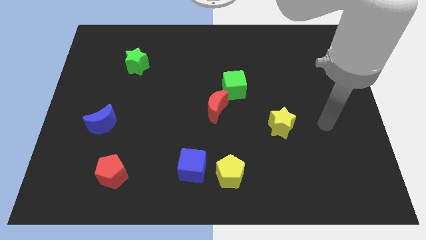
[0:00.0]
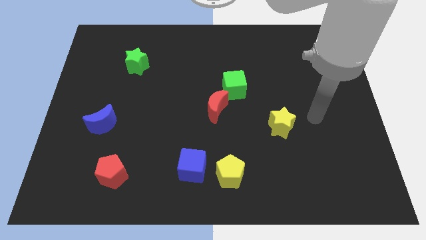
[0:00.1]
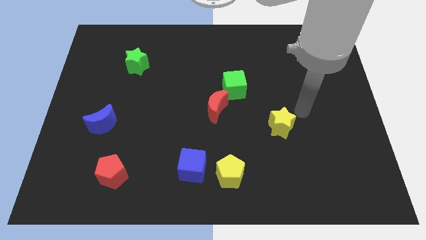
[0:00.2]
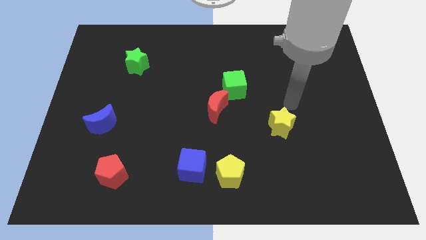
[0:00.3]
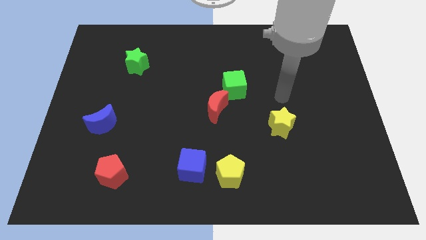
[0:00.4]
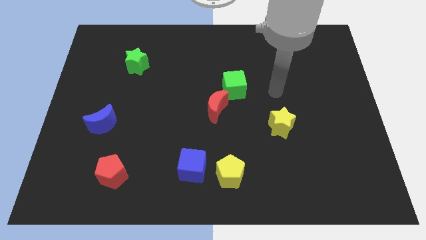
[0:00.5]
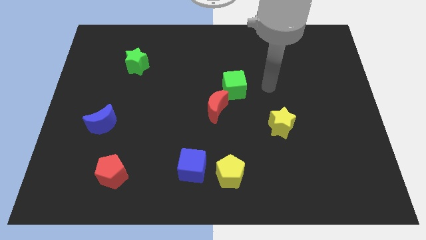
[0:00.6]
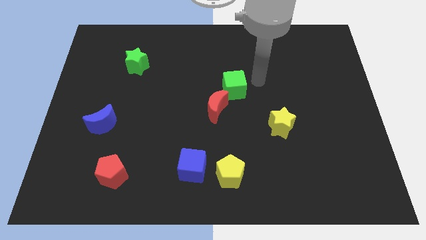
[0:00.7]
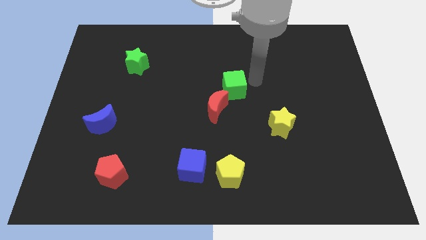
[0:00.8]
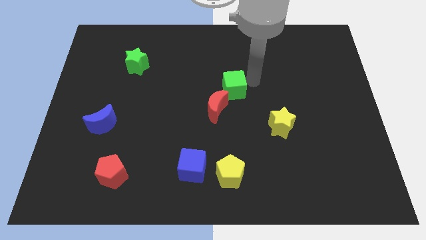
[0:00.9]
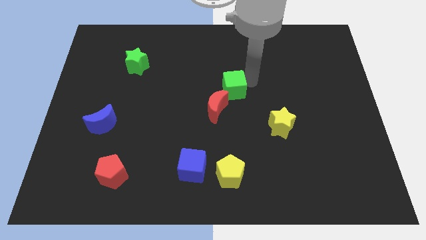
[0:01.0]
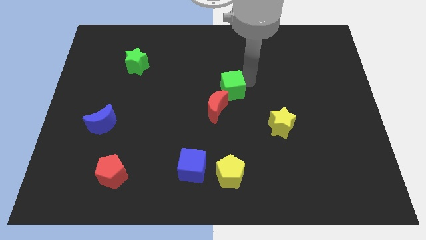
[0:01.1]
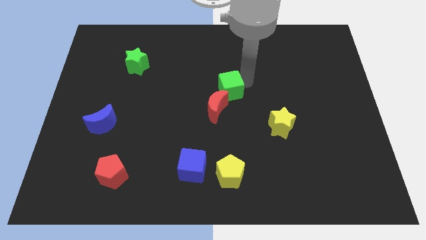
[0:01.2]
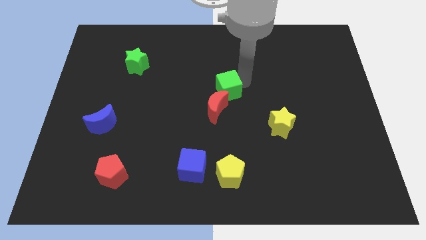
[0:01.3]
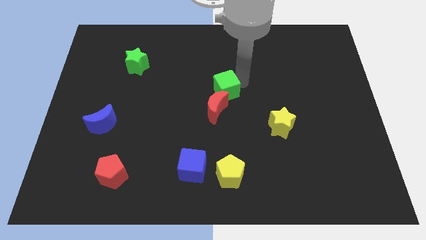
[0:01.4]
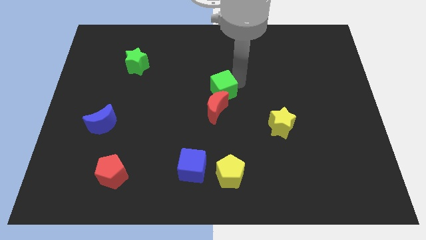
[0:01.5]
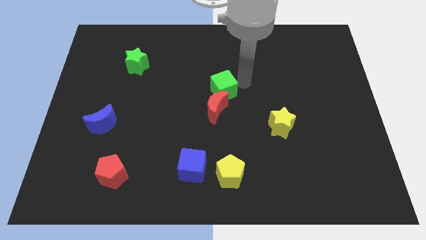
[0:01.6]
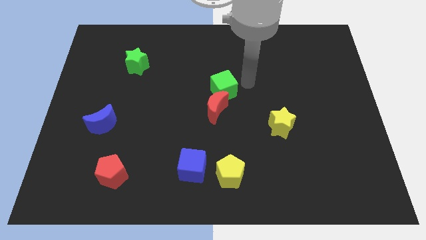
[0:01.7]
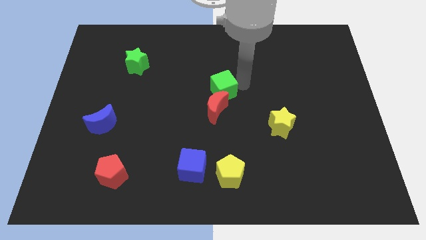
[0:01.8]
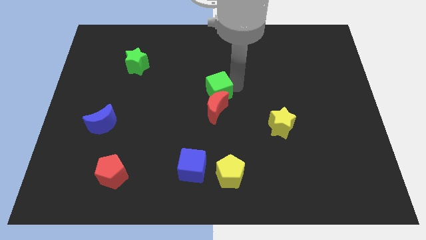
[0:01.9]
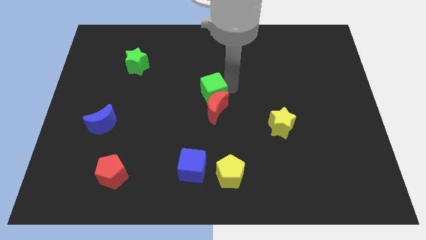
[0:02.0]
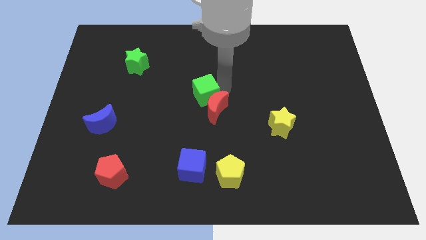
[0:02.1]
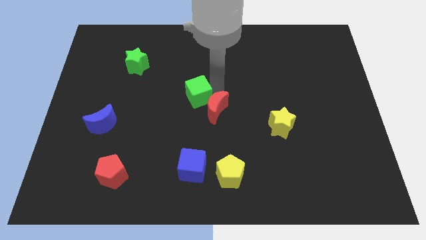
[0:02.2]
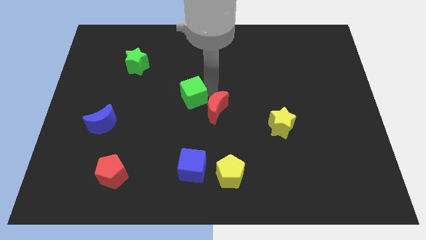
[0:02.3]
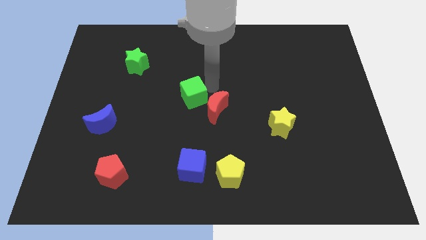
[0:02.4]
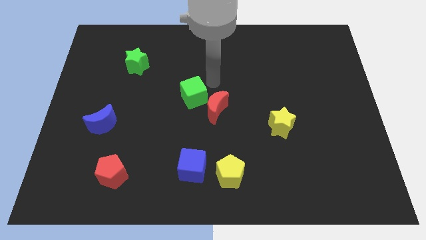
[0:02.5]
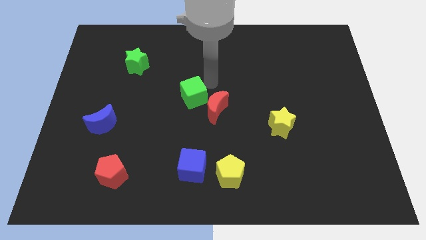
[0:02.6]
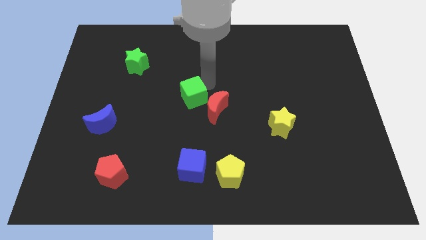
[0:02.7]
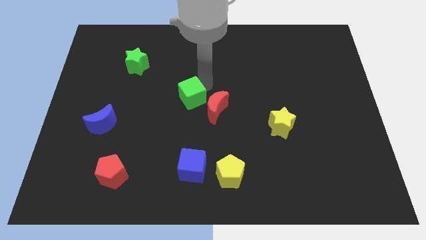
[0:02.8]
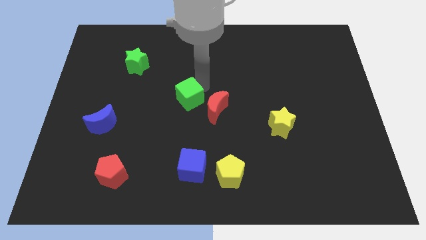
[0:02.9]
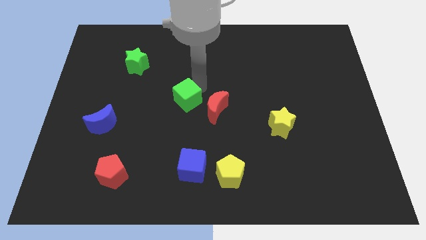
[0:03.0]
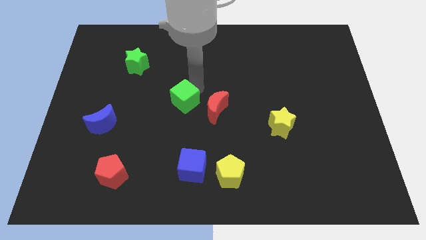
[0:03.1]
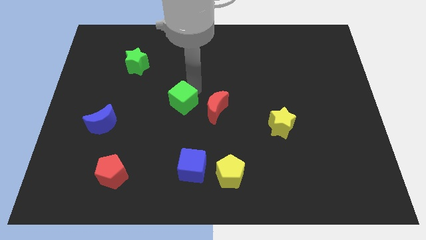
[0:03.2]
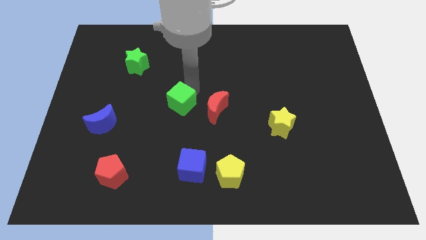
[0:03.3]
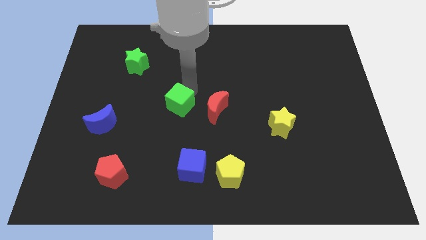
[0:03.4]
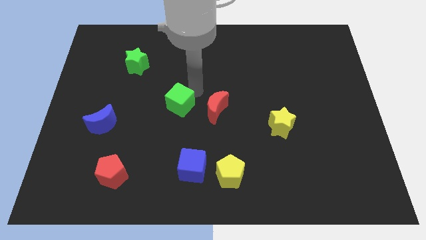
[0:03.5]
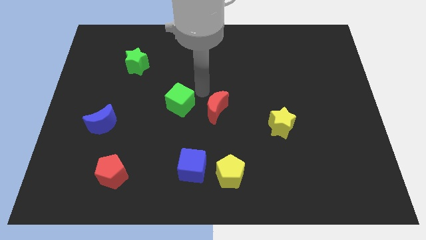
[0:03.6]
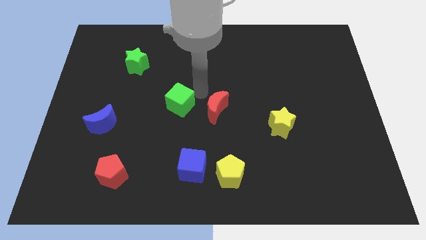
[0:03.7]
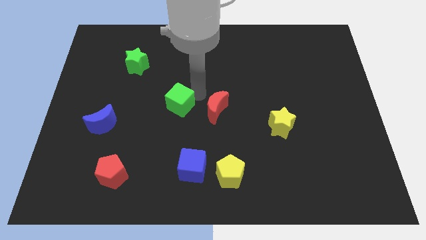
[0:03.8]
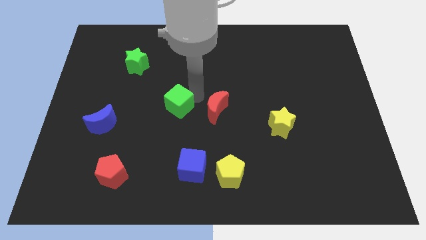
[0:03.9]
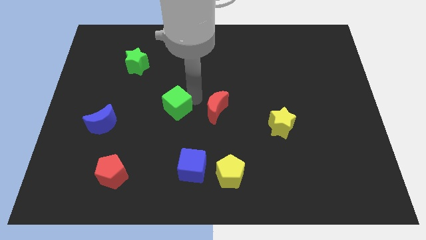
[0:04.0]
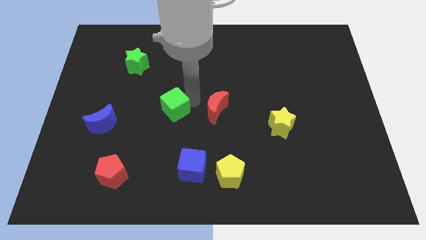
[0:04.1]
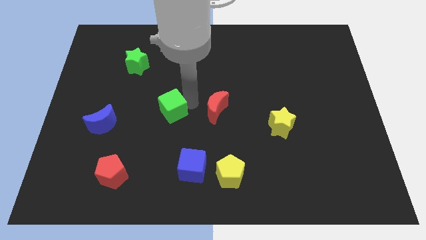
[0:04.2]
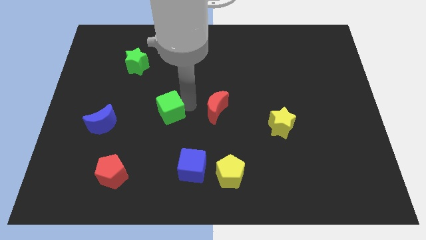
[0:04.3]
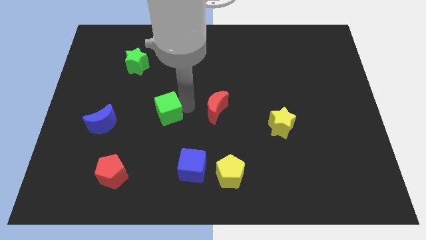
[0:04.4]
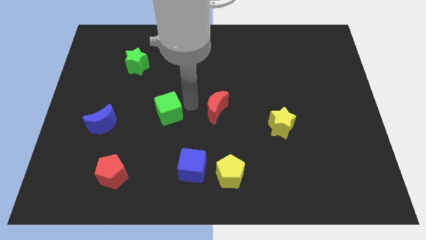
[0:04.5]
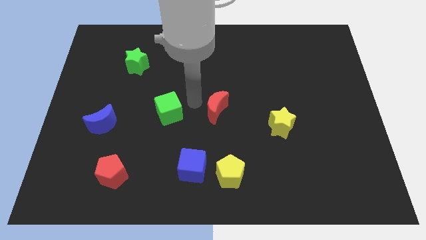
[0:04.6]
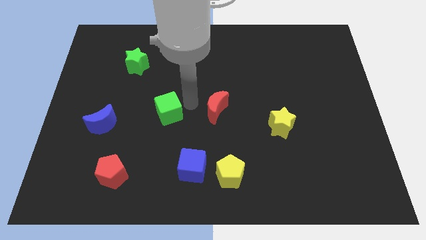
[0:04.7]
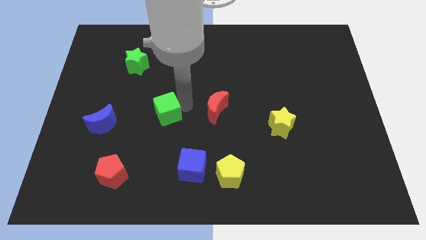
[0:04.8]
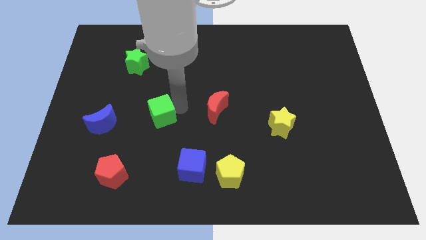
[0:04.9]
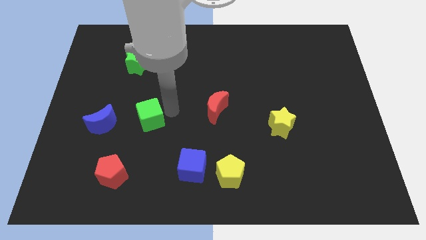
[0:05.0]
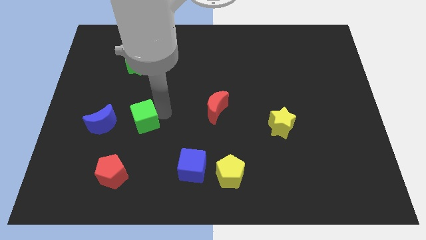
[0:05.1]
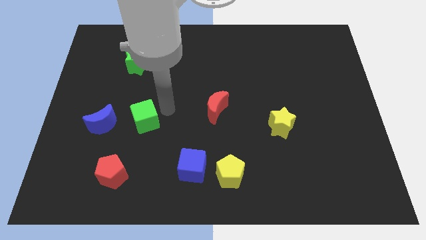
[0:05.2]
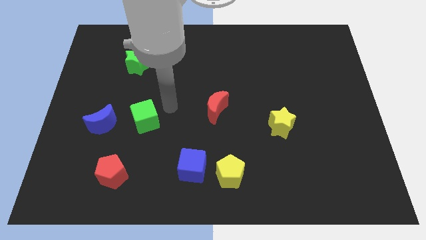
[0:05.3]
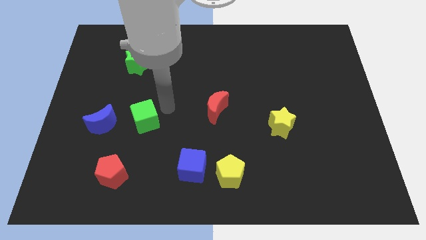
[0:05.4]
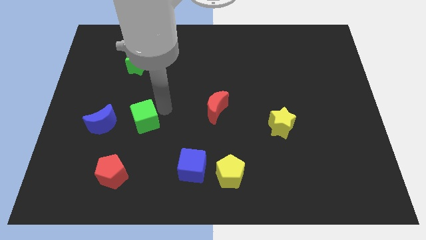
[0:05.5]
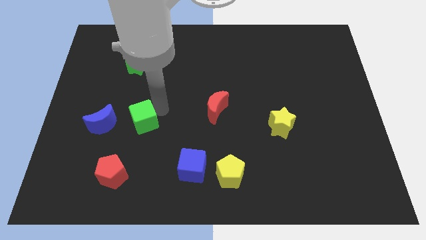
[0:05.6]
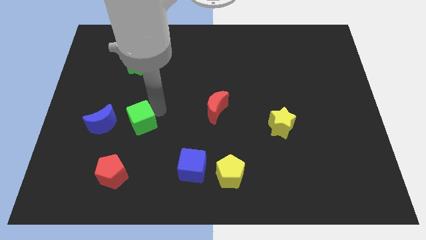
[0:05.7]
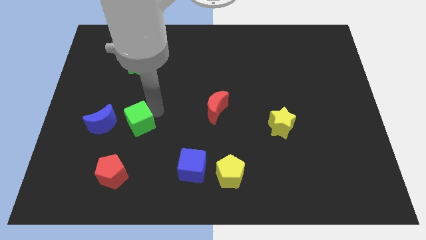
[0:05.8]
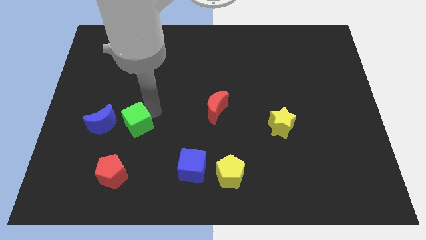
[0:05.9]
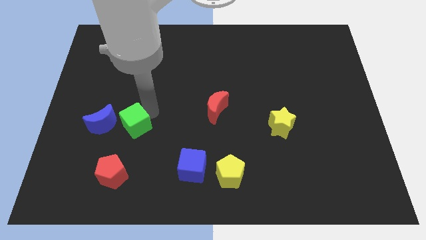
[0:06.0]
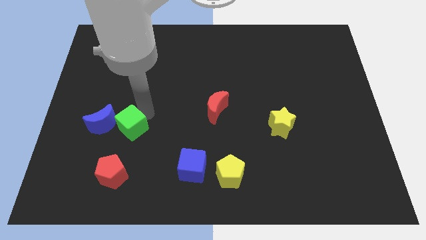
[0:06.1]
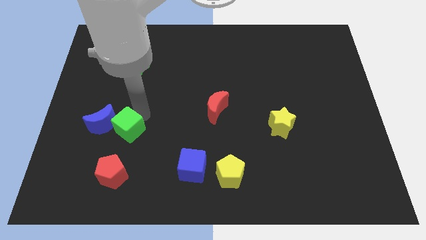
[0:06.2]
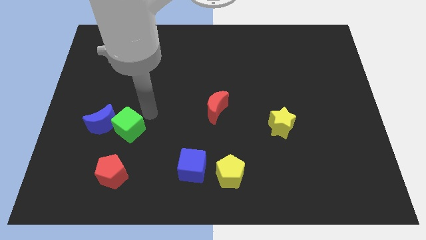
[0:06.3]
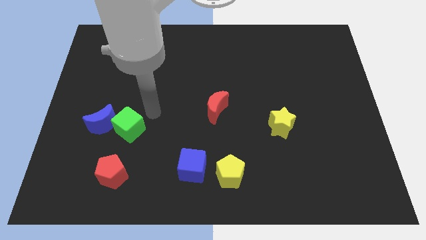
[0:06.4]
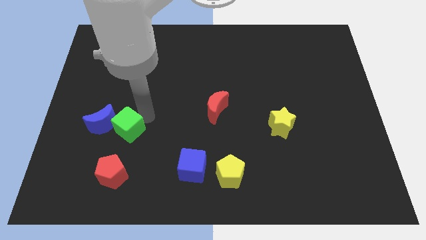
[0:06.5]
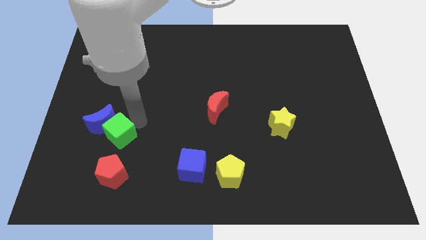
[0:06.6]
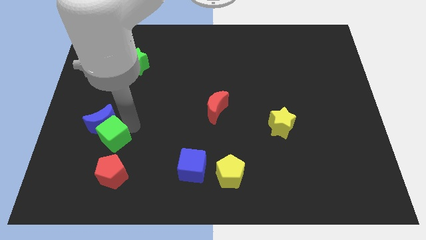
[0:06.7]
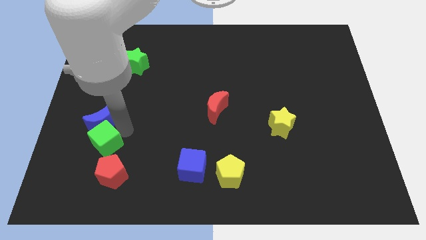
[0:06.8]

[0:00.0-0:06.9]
slide the green cube to the top left of the red pentagon
